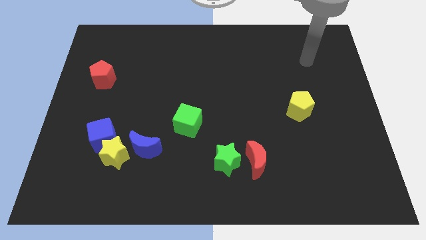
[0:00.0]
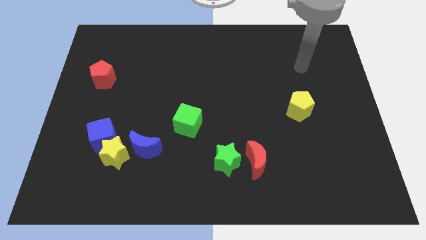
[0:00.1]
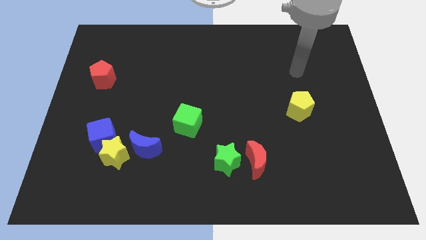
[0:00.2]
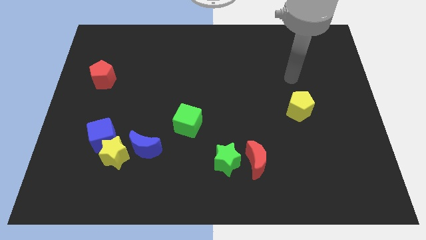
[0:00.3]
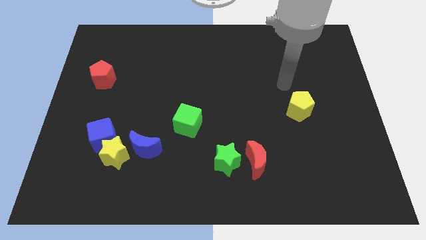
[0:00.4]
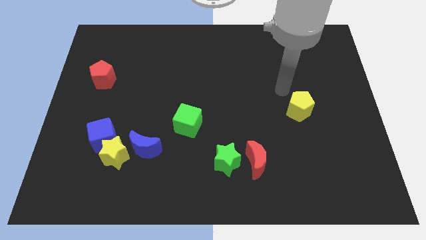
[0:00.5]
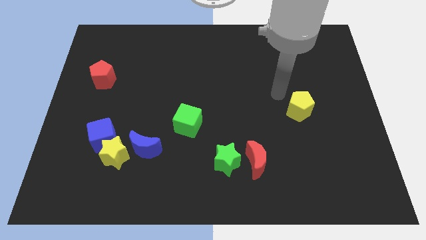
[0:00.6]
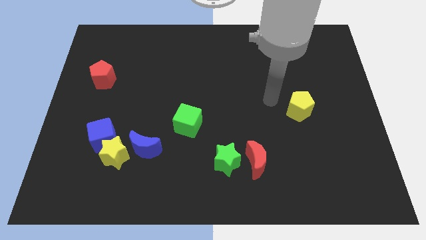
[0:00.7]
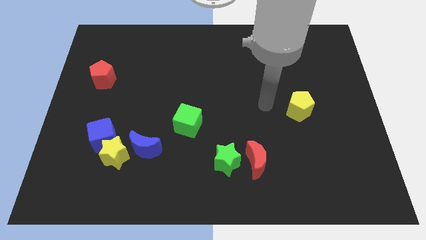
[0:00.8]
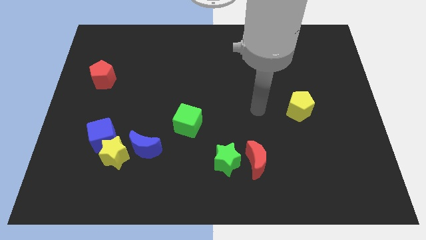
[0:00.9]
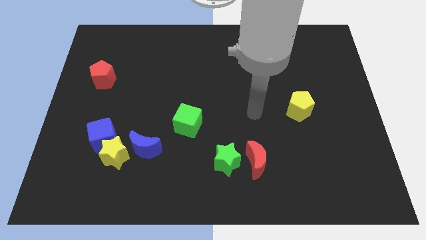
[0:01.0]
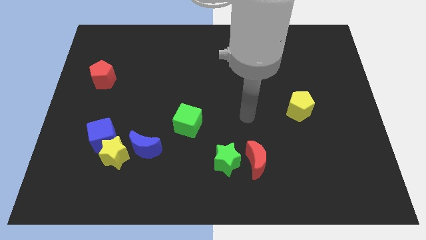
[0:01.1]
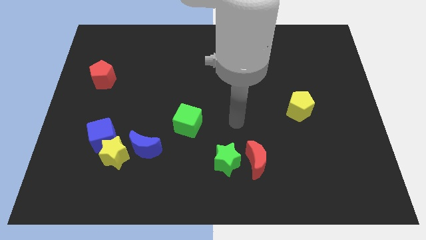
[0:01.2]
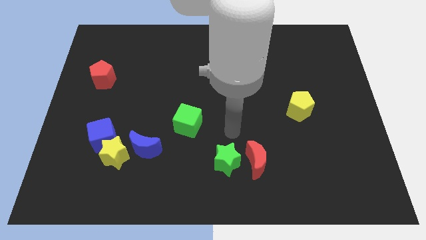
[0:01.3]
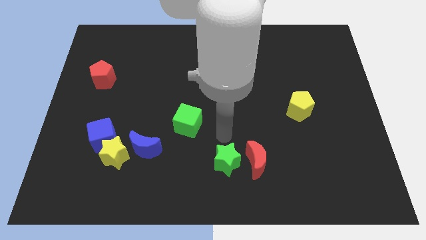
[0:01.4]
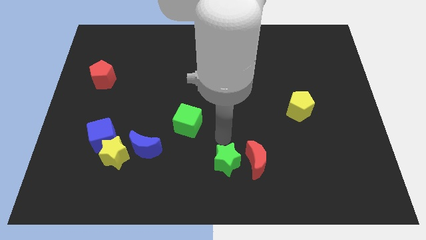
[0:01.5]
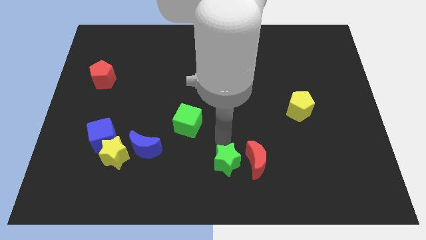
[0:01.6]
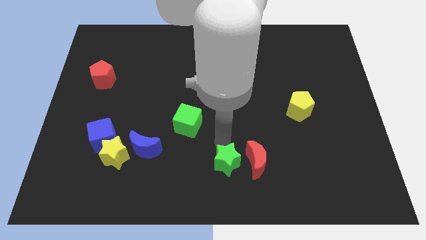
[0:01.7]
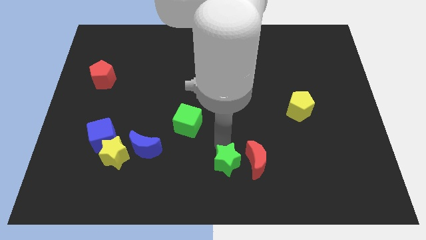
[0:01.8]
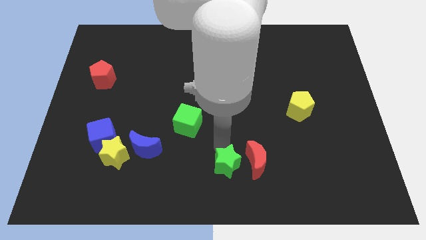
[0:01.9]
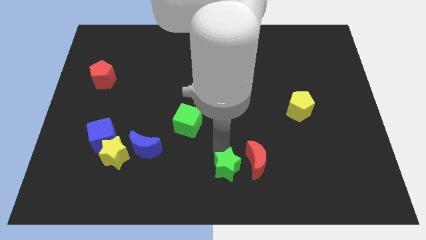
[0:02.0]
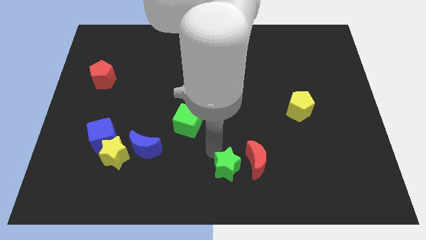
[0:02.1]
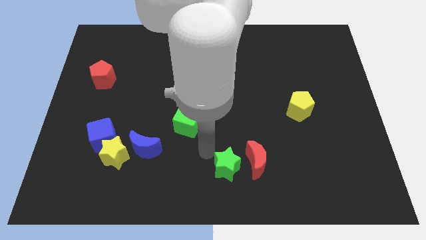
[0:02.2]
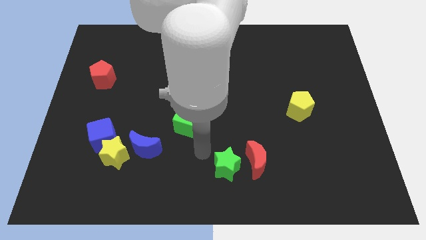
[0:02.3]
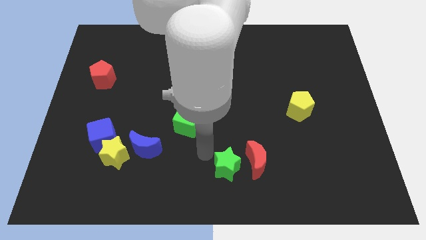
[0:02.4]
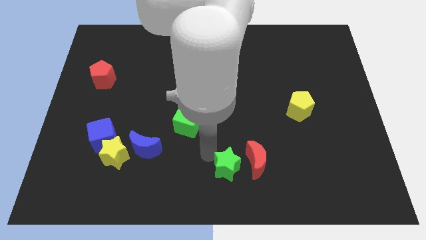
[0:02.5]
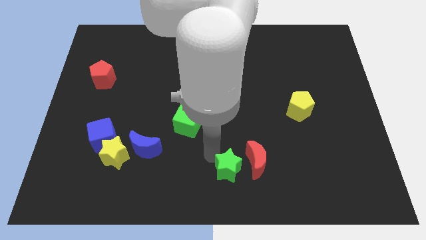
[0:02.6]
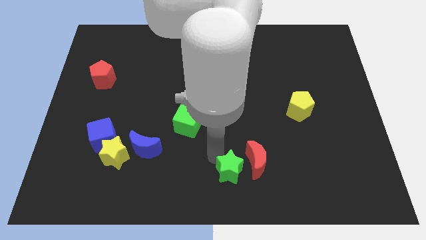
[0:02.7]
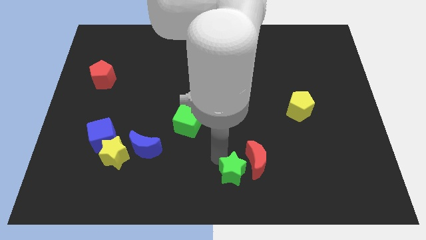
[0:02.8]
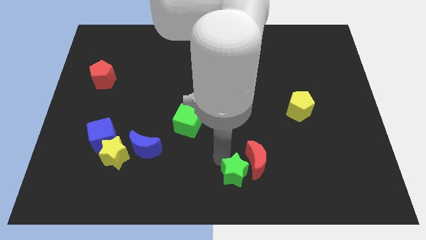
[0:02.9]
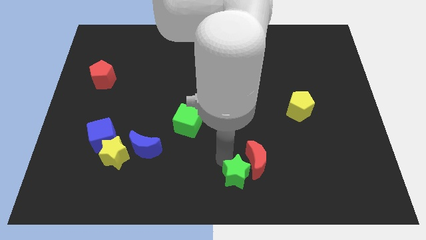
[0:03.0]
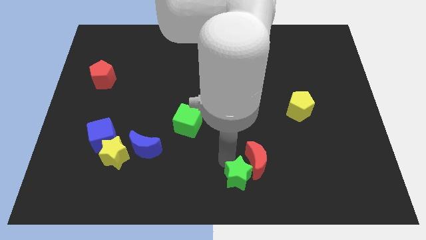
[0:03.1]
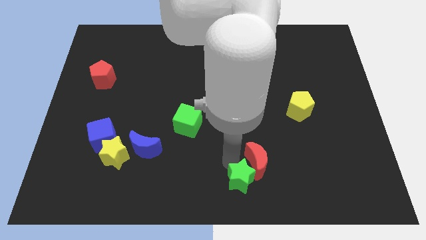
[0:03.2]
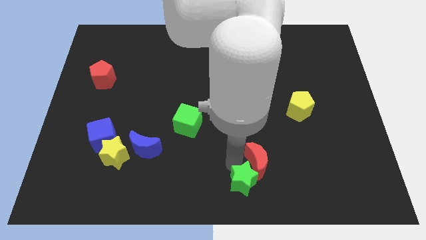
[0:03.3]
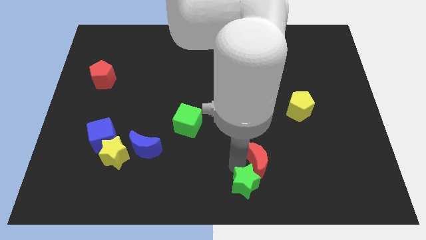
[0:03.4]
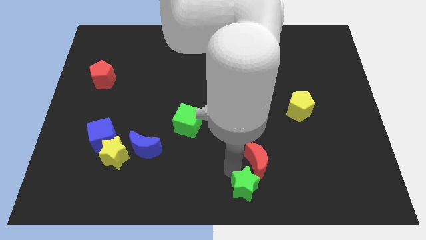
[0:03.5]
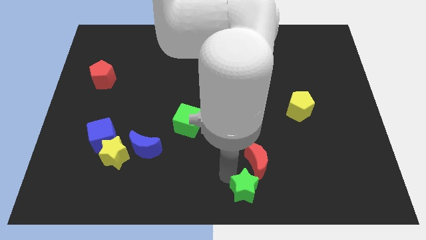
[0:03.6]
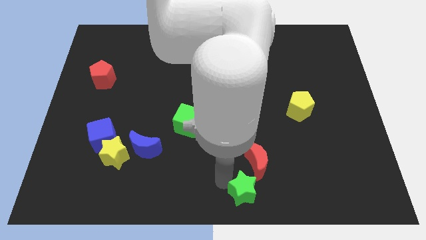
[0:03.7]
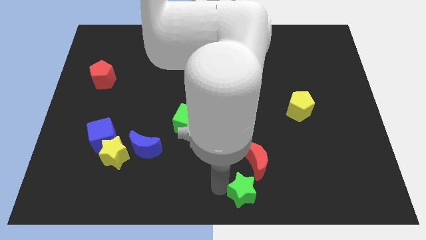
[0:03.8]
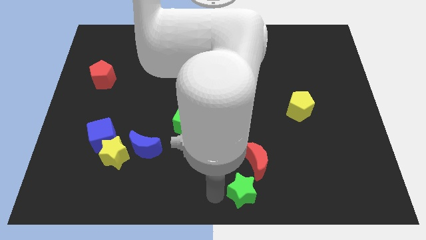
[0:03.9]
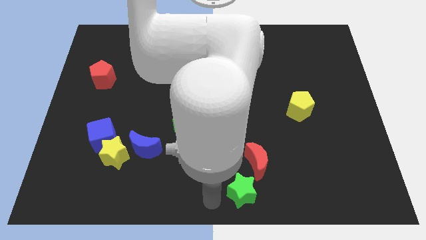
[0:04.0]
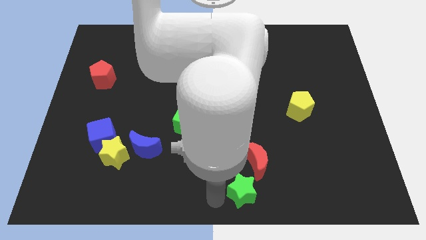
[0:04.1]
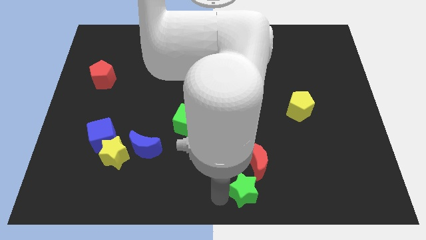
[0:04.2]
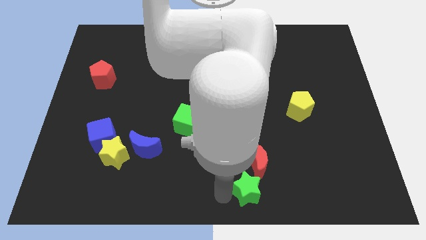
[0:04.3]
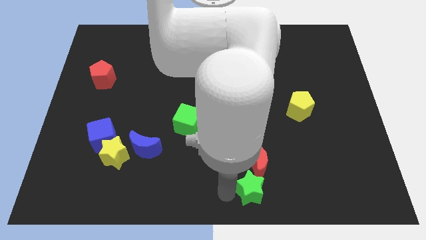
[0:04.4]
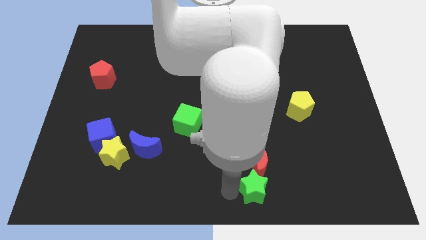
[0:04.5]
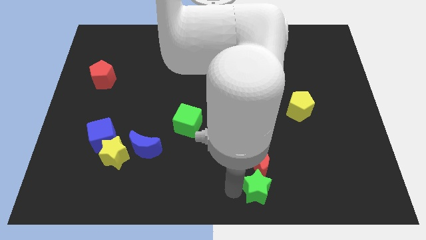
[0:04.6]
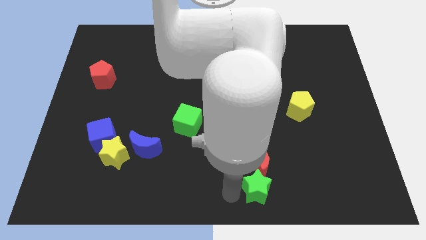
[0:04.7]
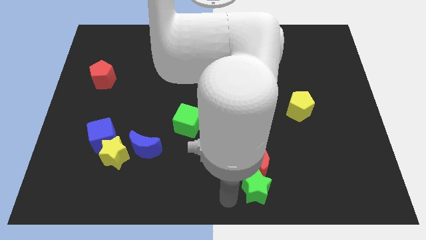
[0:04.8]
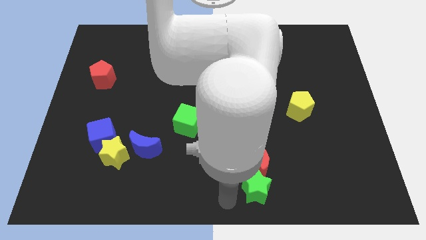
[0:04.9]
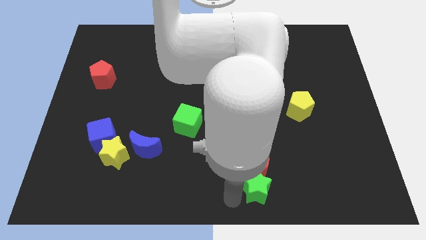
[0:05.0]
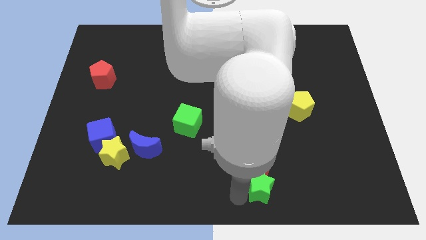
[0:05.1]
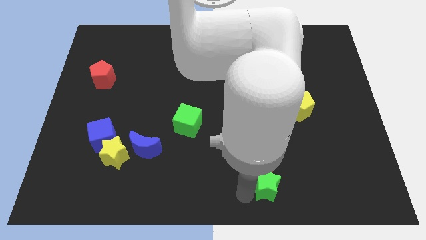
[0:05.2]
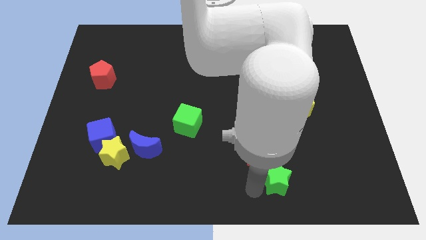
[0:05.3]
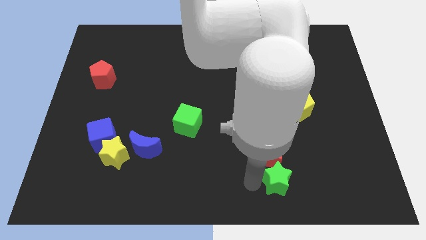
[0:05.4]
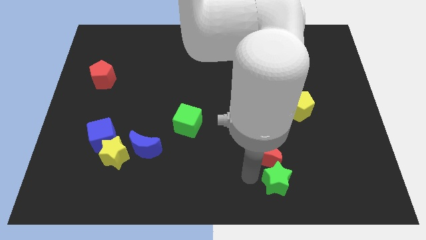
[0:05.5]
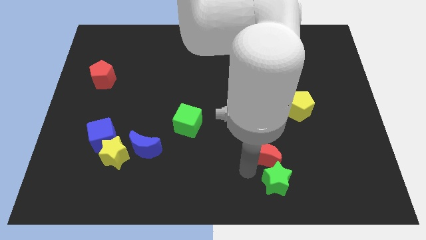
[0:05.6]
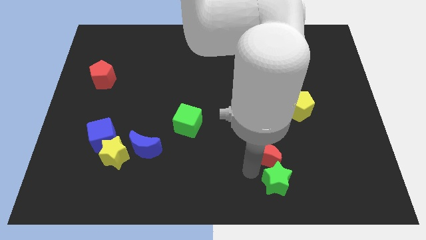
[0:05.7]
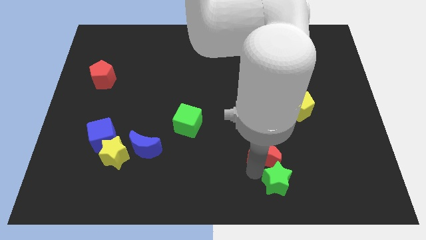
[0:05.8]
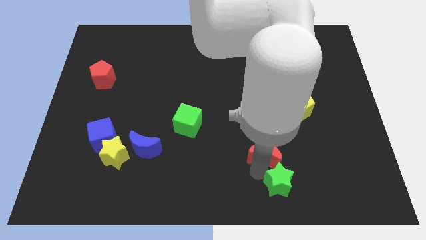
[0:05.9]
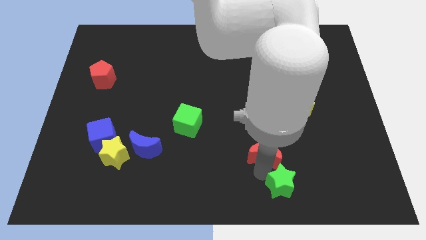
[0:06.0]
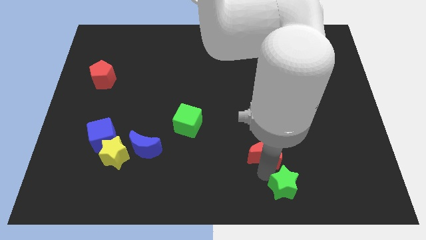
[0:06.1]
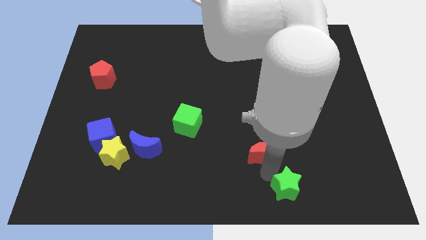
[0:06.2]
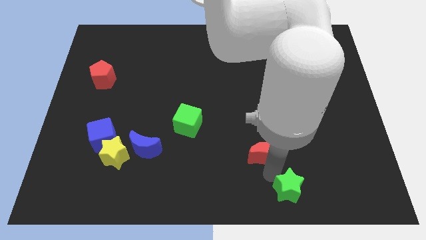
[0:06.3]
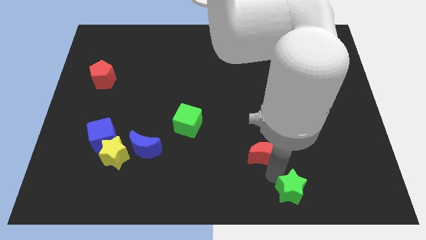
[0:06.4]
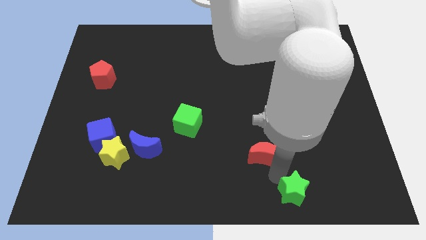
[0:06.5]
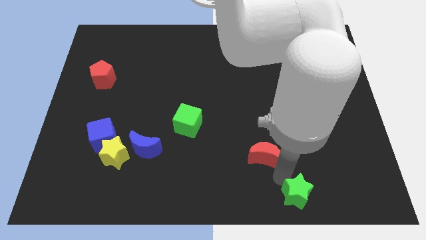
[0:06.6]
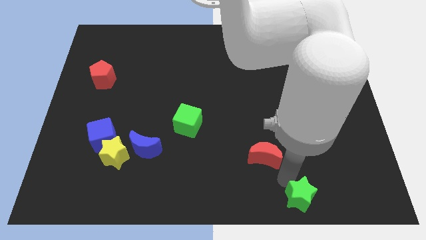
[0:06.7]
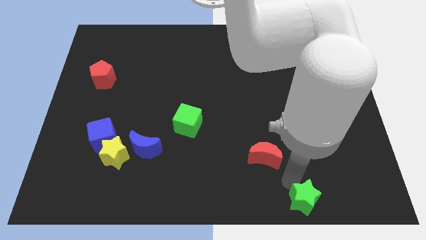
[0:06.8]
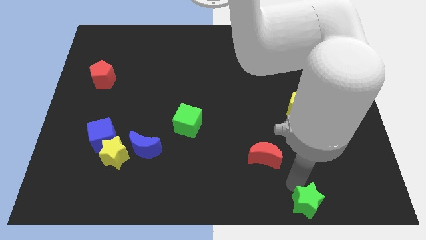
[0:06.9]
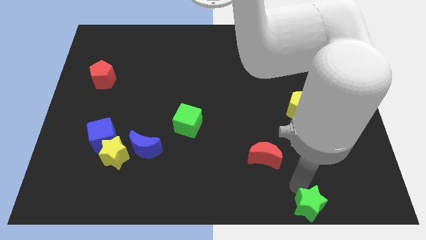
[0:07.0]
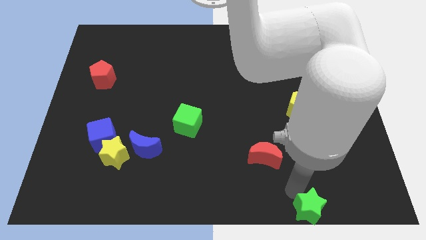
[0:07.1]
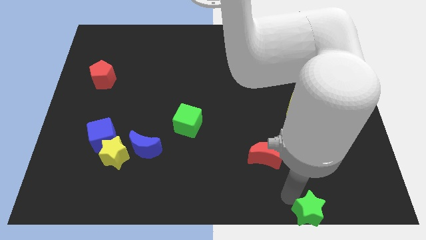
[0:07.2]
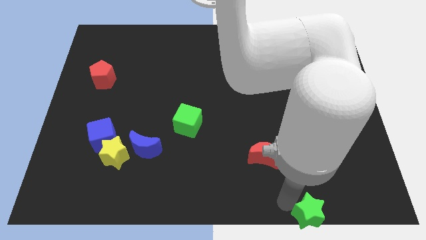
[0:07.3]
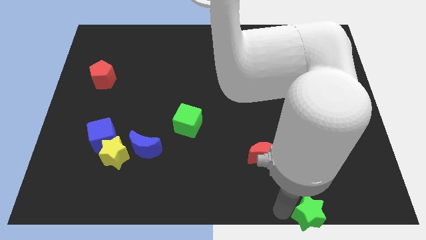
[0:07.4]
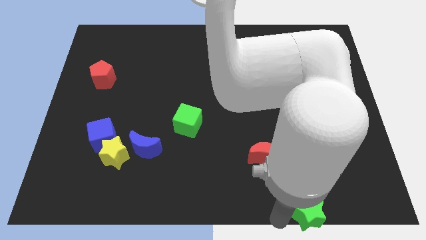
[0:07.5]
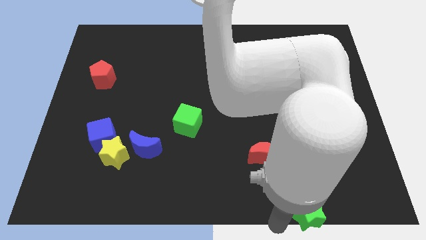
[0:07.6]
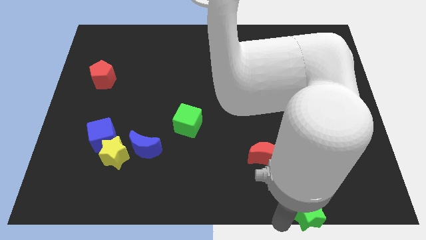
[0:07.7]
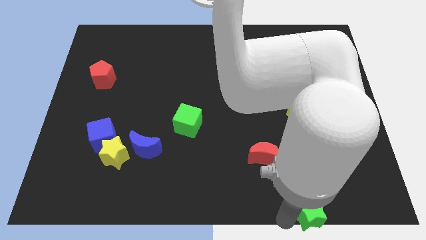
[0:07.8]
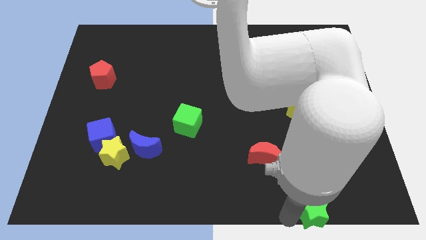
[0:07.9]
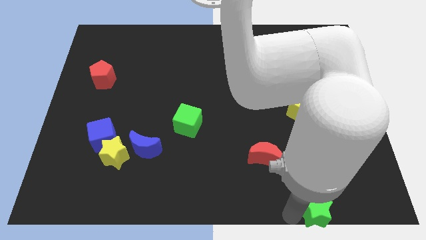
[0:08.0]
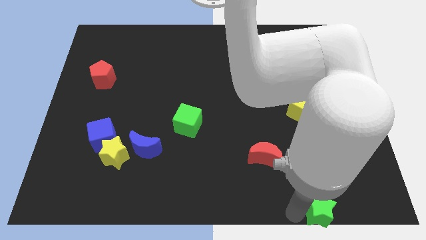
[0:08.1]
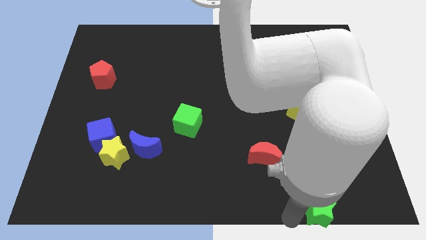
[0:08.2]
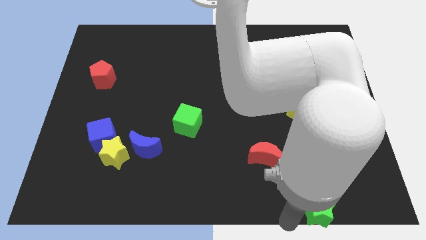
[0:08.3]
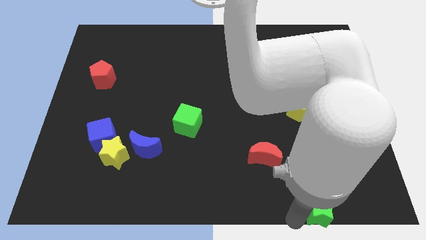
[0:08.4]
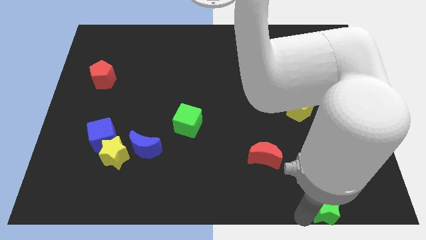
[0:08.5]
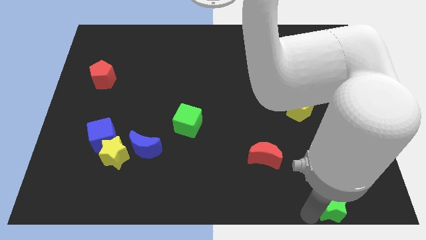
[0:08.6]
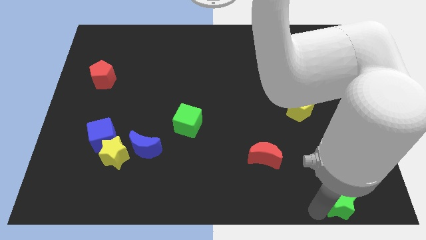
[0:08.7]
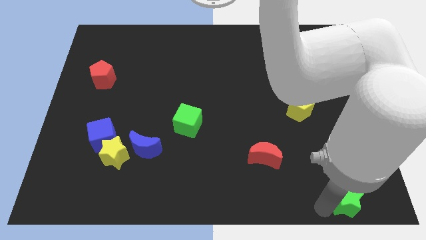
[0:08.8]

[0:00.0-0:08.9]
push the green star to the bottom right corner
